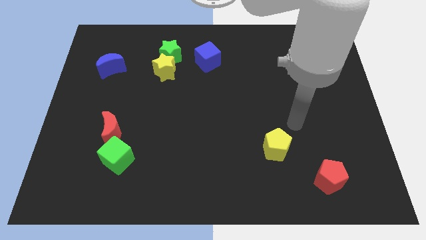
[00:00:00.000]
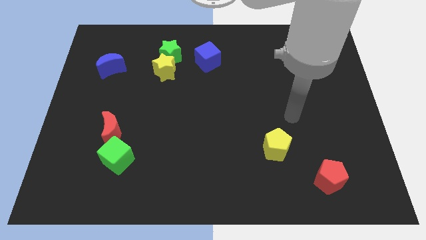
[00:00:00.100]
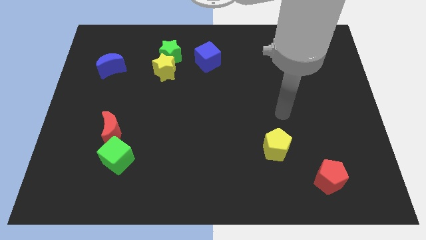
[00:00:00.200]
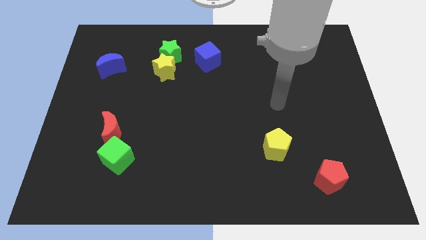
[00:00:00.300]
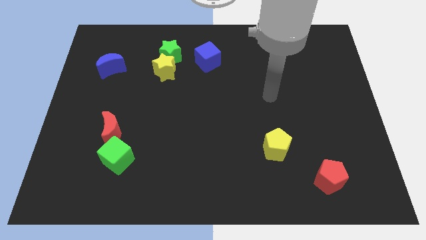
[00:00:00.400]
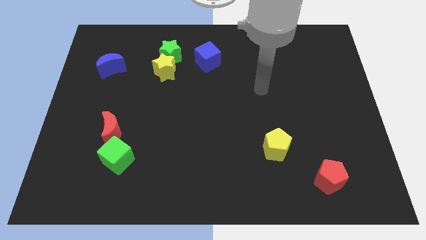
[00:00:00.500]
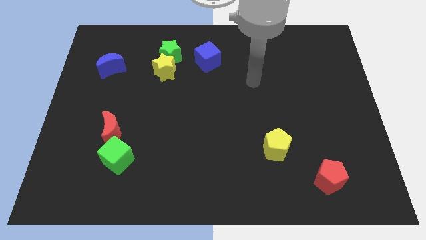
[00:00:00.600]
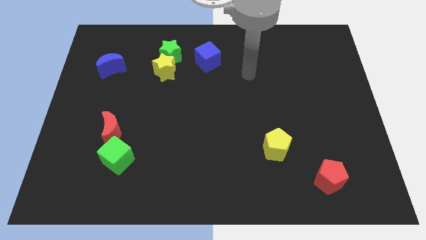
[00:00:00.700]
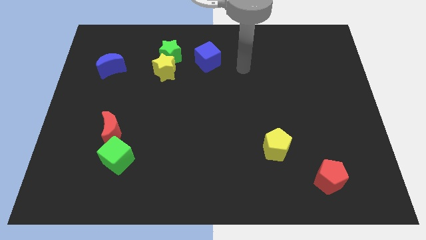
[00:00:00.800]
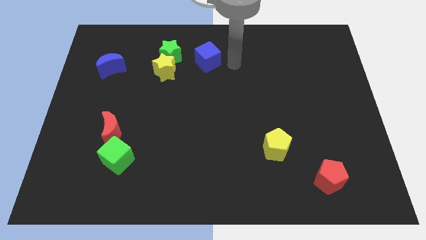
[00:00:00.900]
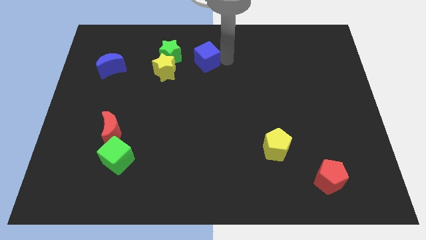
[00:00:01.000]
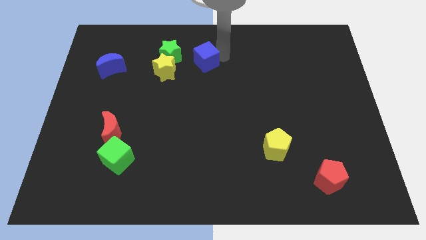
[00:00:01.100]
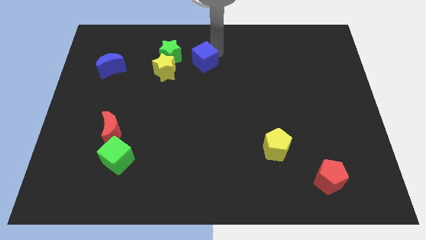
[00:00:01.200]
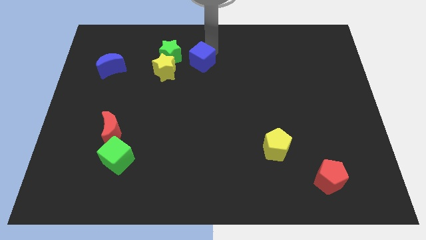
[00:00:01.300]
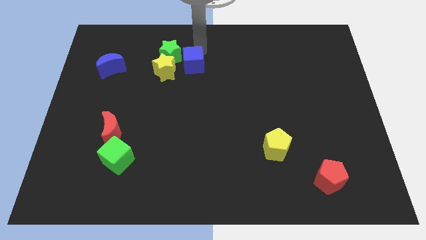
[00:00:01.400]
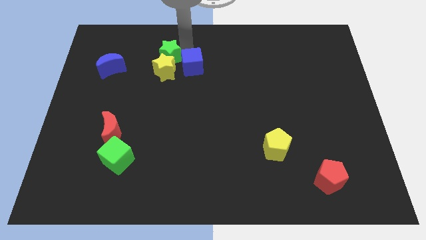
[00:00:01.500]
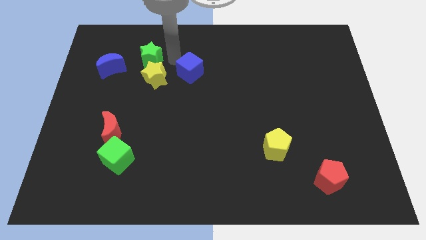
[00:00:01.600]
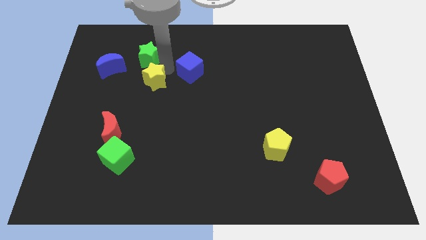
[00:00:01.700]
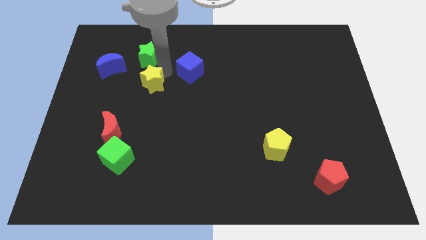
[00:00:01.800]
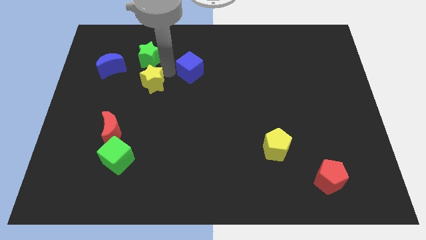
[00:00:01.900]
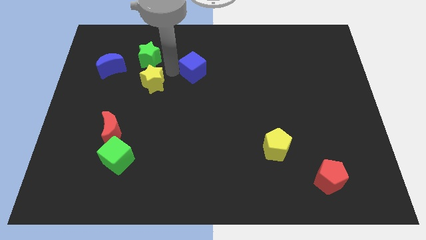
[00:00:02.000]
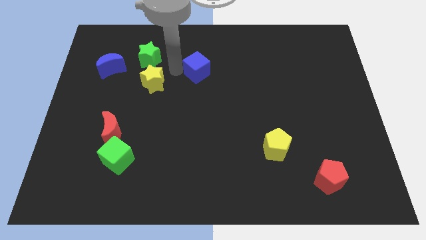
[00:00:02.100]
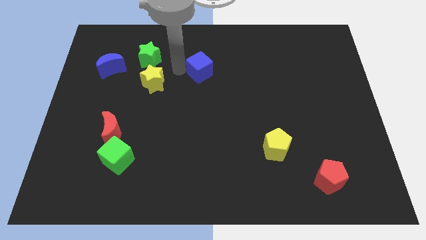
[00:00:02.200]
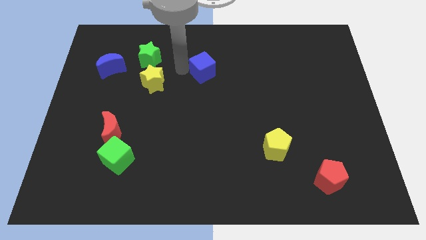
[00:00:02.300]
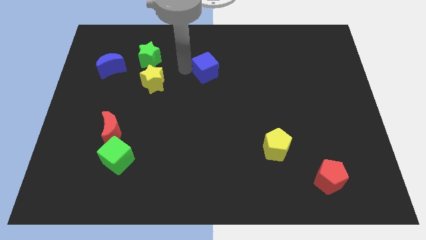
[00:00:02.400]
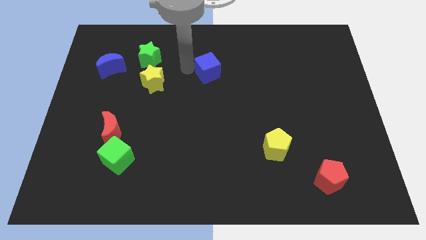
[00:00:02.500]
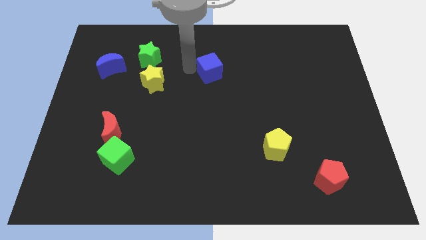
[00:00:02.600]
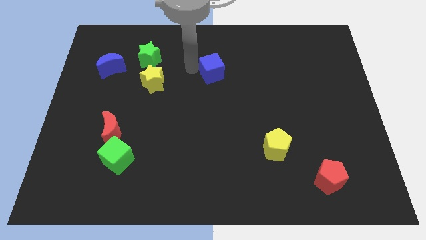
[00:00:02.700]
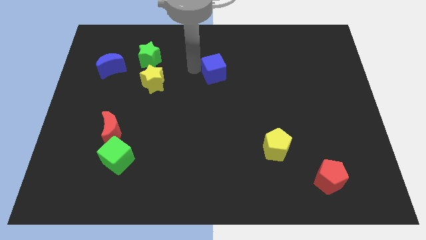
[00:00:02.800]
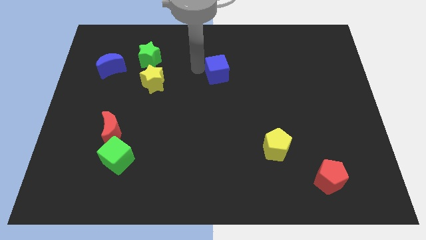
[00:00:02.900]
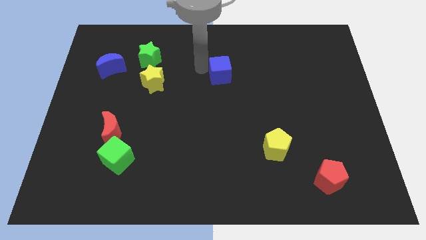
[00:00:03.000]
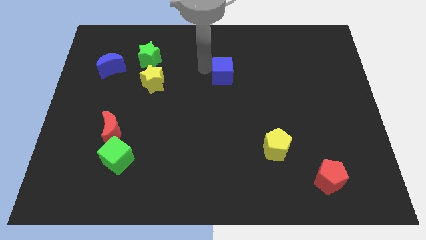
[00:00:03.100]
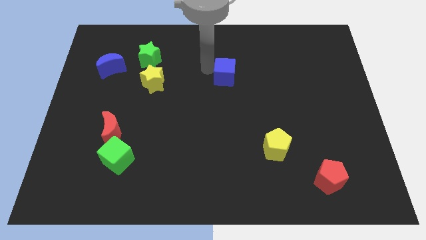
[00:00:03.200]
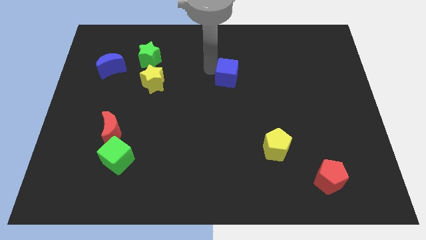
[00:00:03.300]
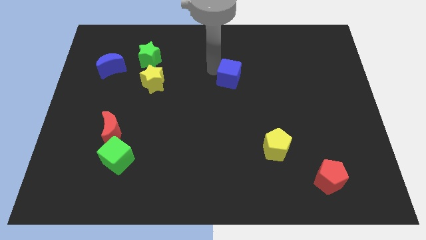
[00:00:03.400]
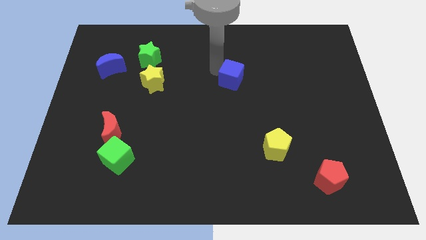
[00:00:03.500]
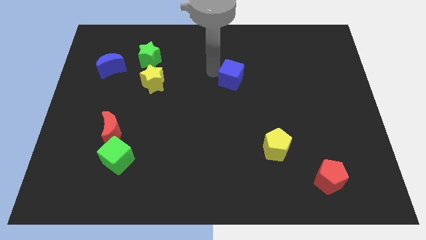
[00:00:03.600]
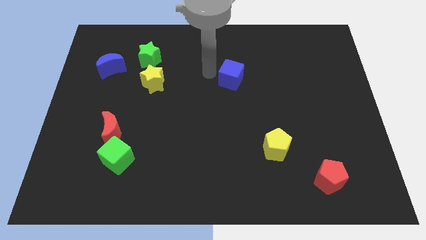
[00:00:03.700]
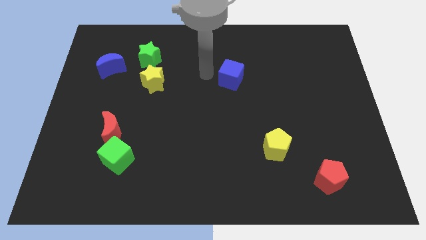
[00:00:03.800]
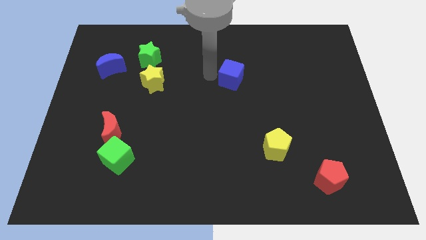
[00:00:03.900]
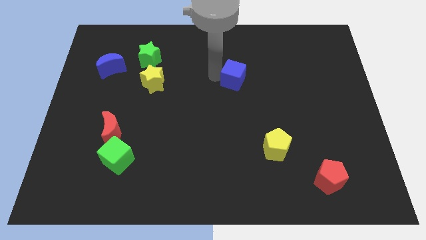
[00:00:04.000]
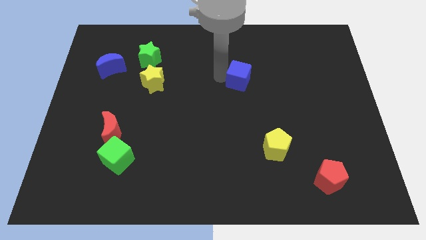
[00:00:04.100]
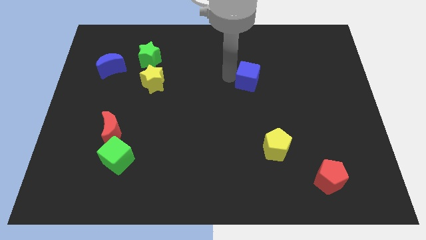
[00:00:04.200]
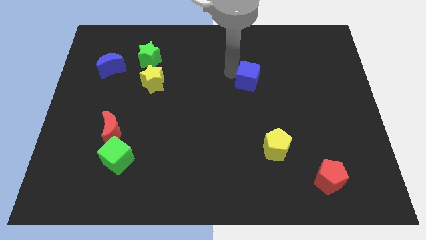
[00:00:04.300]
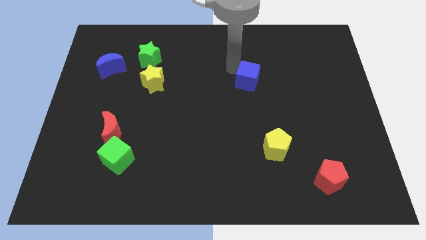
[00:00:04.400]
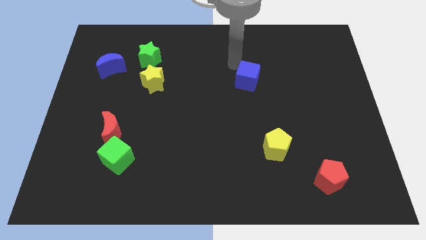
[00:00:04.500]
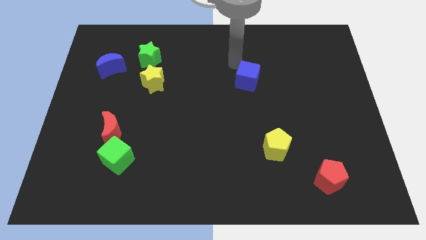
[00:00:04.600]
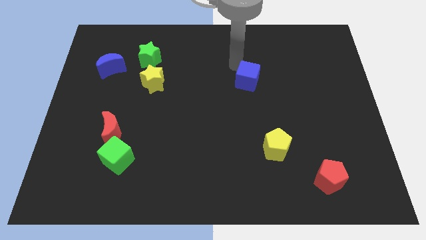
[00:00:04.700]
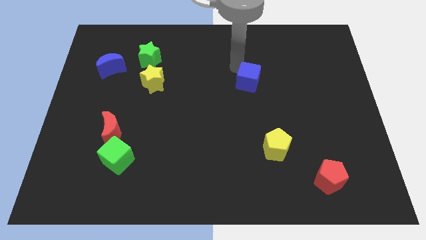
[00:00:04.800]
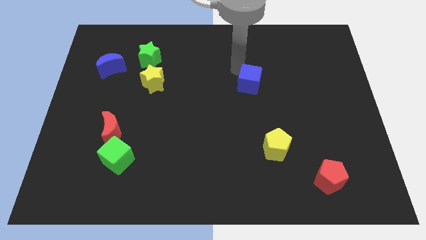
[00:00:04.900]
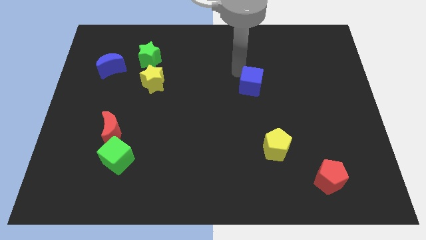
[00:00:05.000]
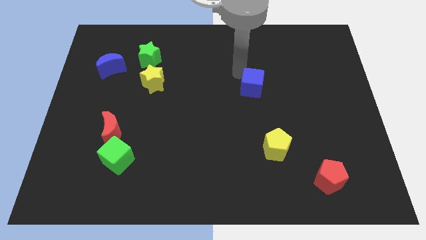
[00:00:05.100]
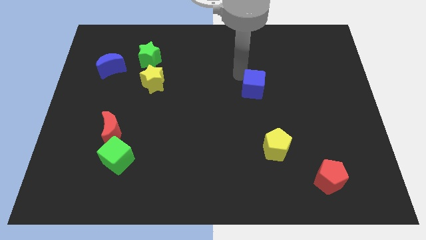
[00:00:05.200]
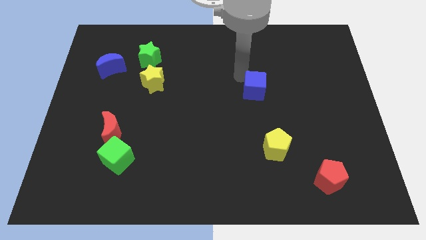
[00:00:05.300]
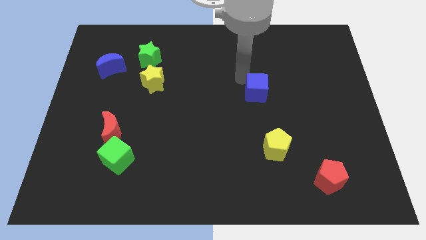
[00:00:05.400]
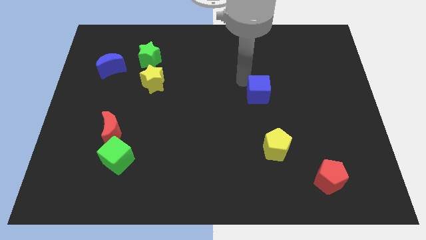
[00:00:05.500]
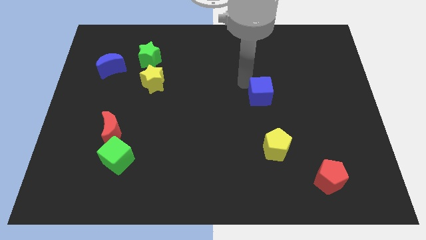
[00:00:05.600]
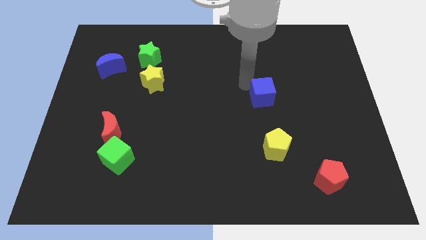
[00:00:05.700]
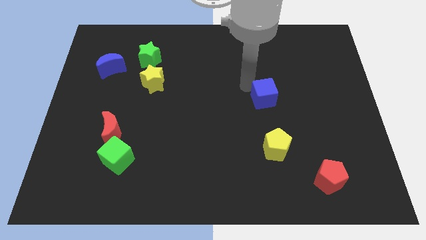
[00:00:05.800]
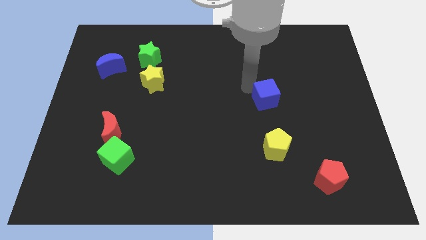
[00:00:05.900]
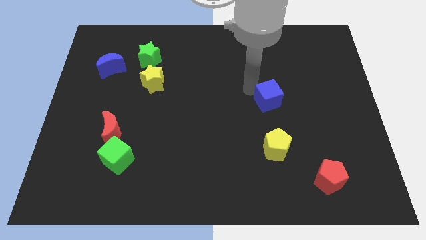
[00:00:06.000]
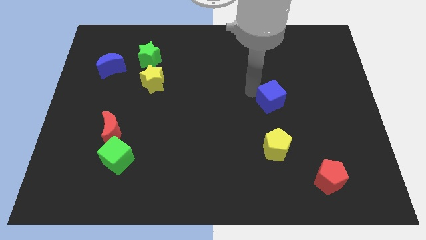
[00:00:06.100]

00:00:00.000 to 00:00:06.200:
move the blue cube downwards and right diagonally

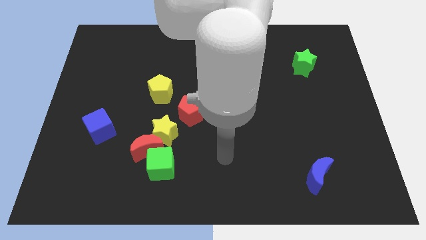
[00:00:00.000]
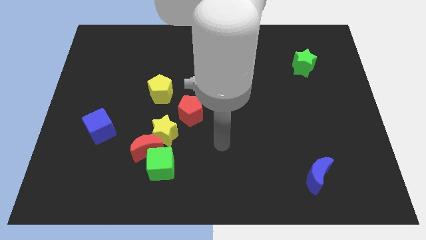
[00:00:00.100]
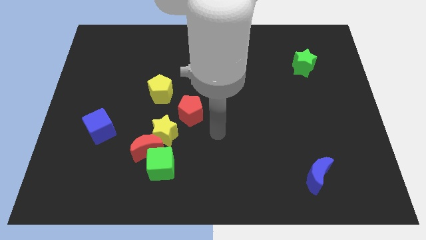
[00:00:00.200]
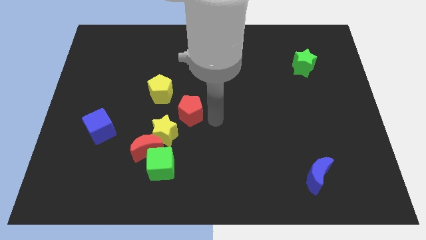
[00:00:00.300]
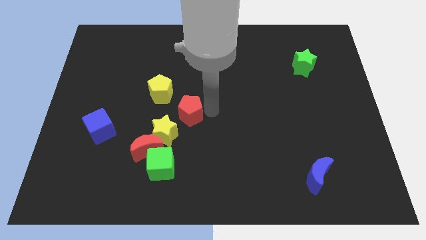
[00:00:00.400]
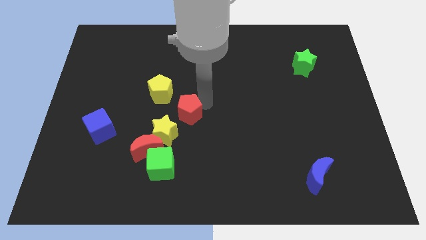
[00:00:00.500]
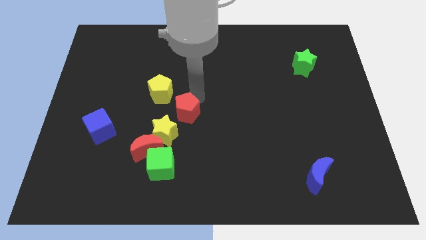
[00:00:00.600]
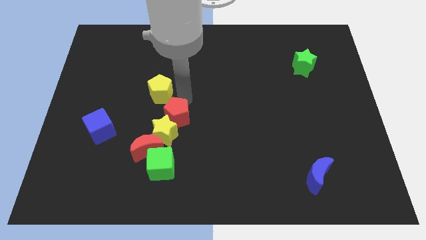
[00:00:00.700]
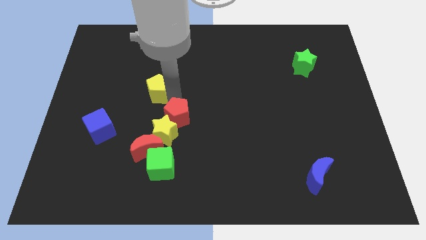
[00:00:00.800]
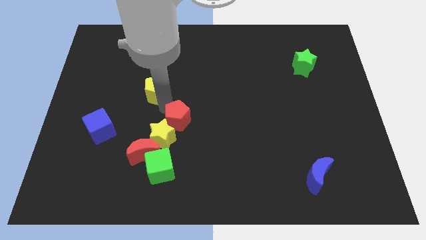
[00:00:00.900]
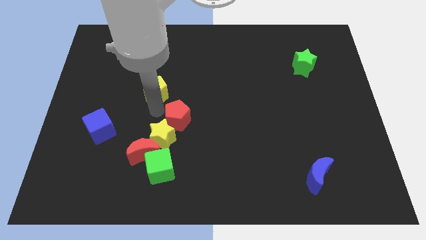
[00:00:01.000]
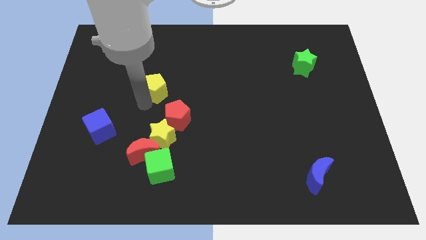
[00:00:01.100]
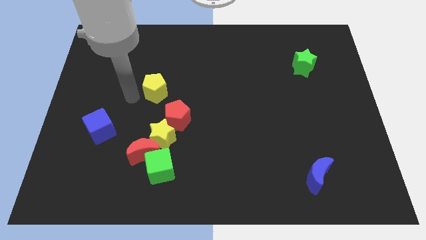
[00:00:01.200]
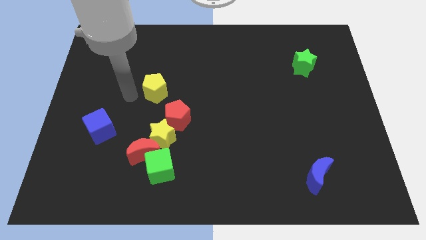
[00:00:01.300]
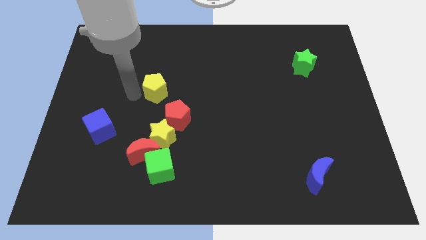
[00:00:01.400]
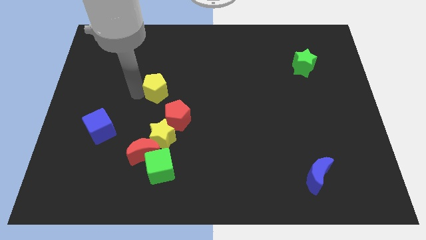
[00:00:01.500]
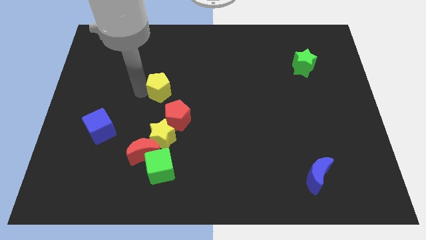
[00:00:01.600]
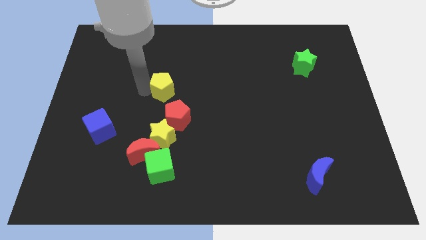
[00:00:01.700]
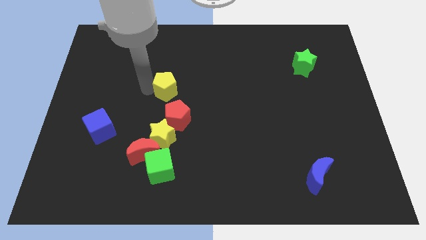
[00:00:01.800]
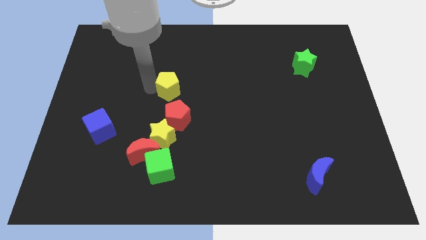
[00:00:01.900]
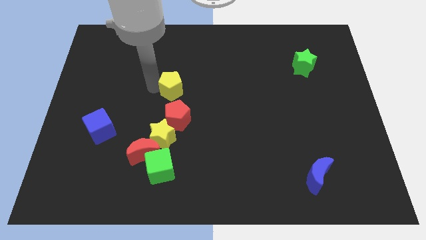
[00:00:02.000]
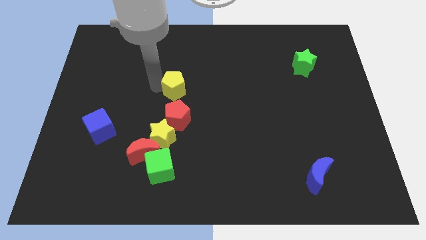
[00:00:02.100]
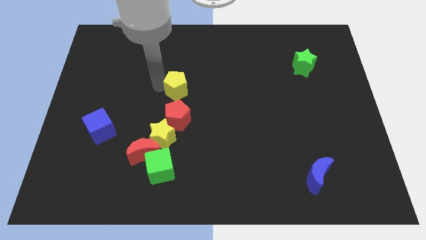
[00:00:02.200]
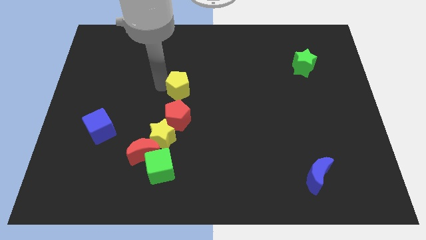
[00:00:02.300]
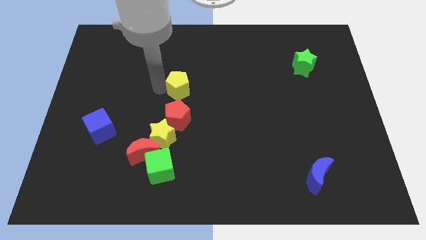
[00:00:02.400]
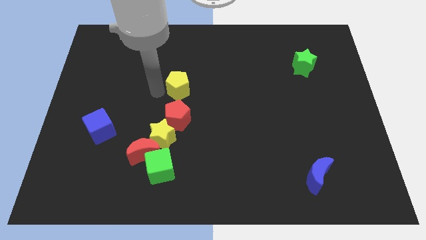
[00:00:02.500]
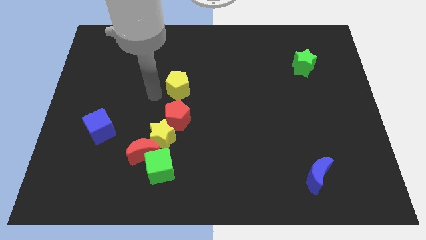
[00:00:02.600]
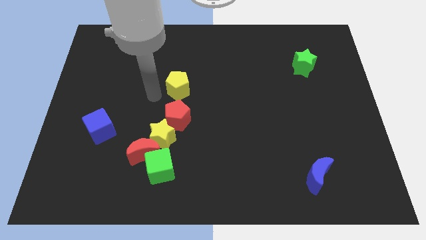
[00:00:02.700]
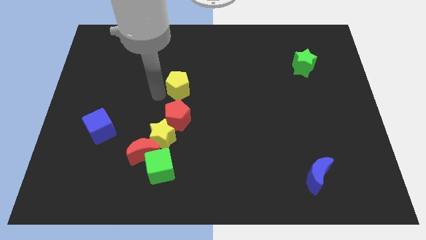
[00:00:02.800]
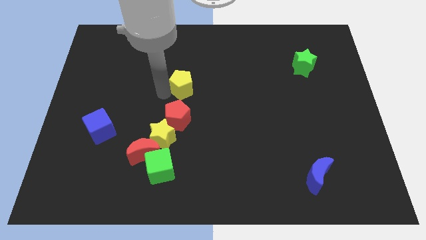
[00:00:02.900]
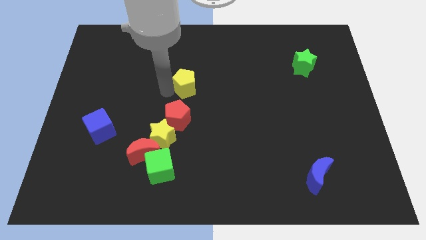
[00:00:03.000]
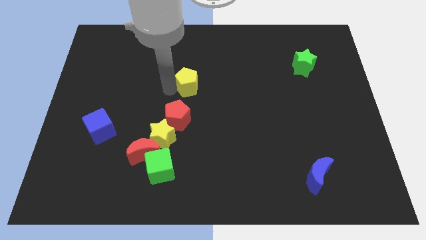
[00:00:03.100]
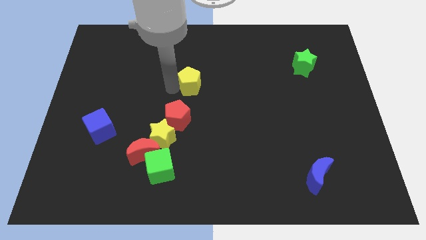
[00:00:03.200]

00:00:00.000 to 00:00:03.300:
move the yellow pentagon to the right slightly
